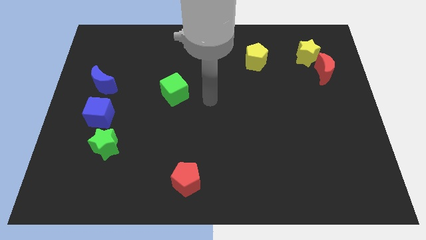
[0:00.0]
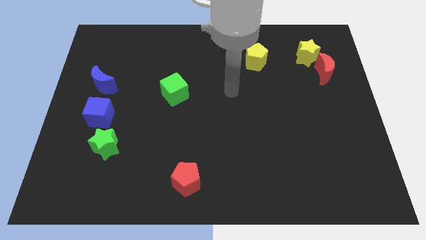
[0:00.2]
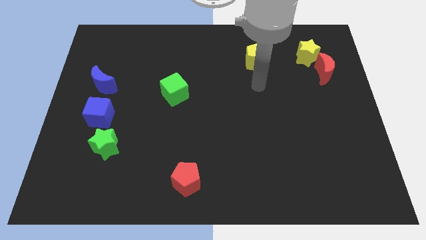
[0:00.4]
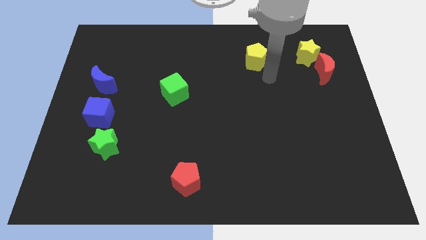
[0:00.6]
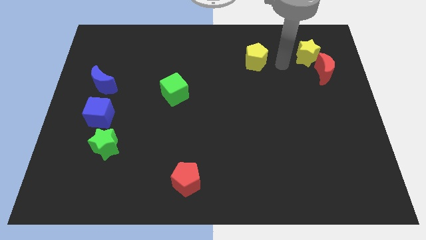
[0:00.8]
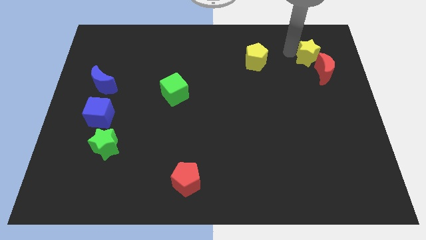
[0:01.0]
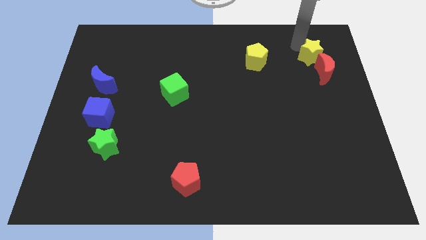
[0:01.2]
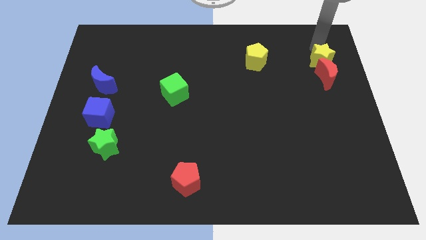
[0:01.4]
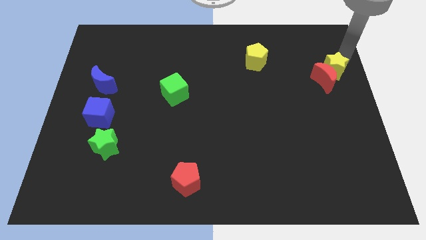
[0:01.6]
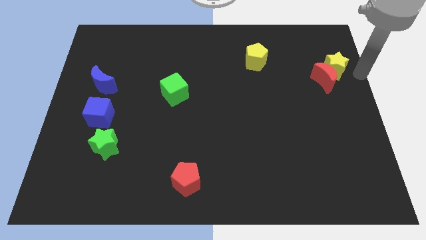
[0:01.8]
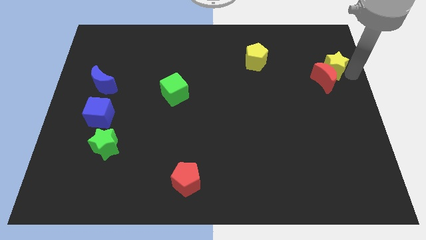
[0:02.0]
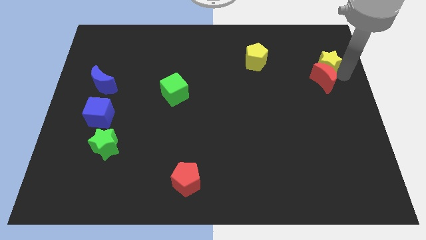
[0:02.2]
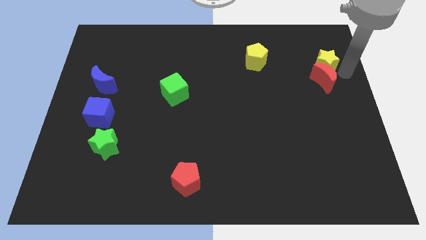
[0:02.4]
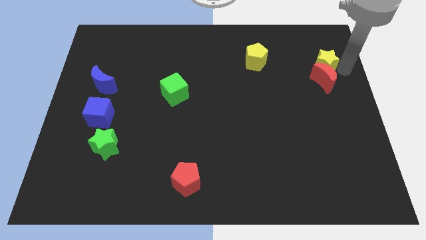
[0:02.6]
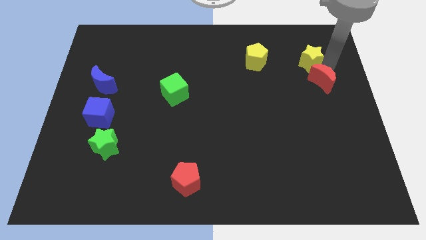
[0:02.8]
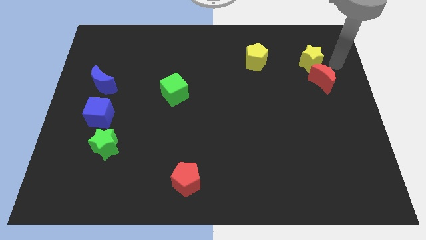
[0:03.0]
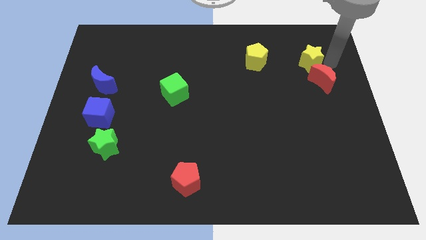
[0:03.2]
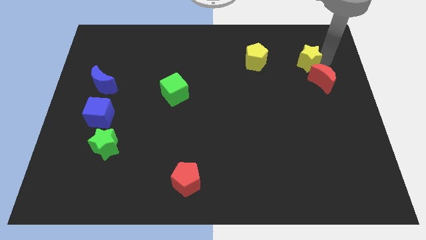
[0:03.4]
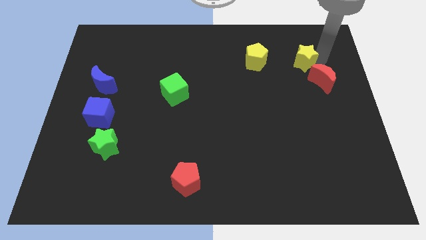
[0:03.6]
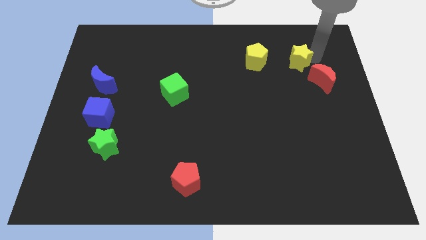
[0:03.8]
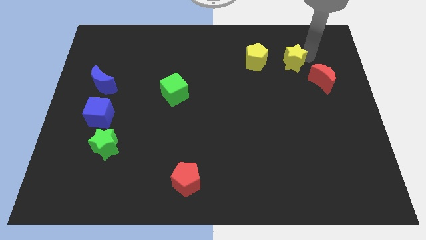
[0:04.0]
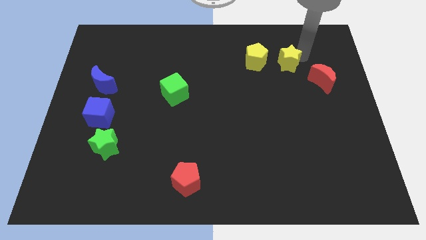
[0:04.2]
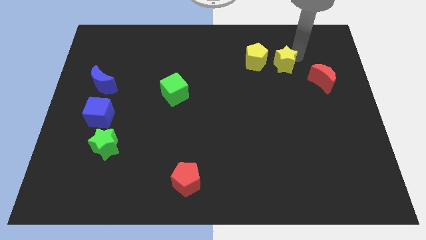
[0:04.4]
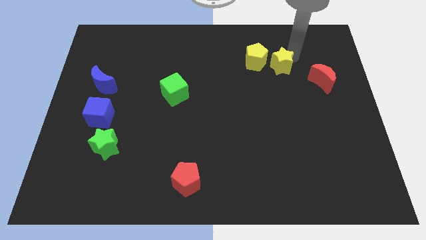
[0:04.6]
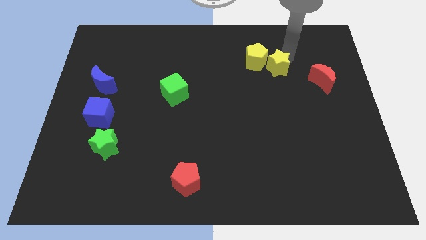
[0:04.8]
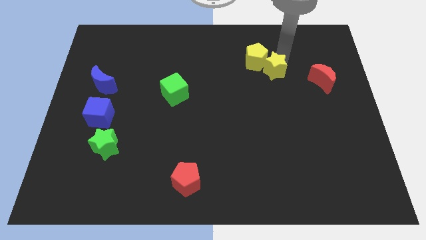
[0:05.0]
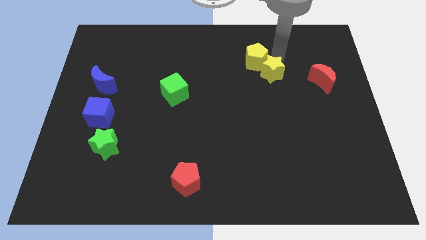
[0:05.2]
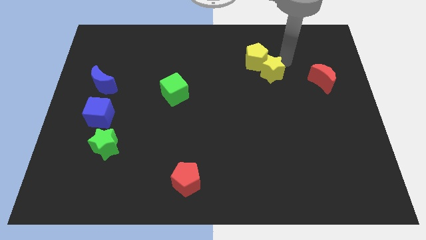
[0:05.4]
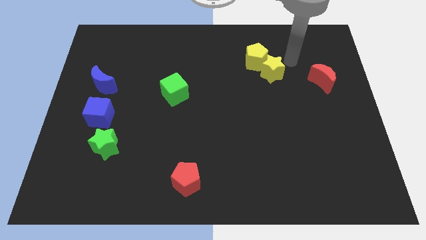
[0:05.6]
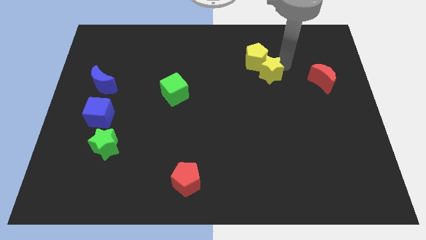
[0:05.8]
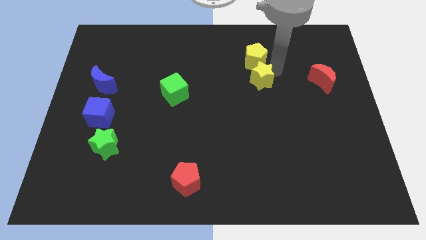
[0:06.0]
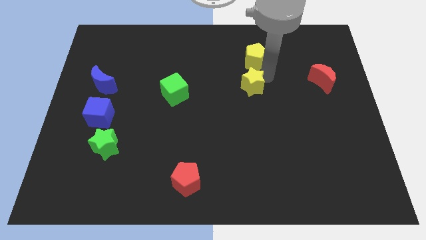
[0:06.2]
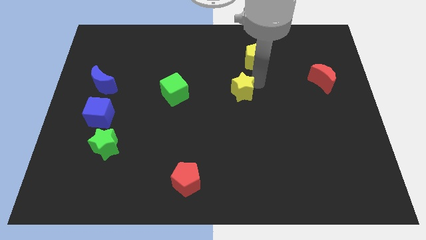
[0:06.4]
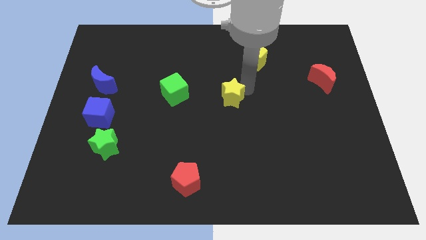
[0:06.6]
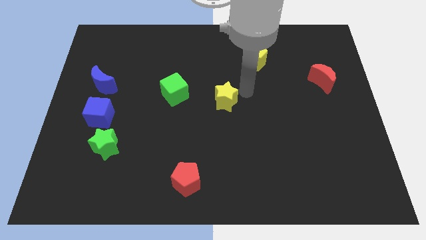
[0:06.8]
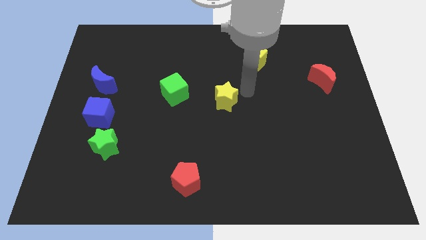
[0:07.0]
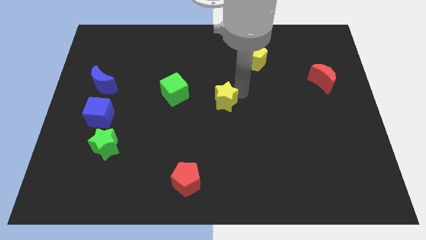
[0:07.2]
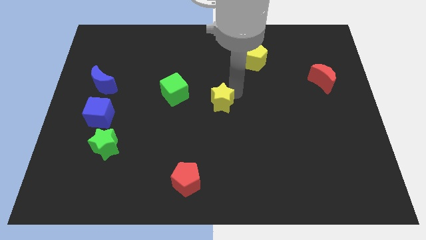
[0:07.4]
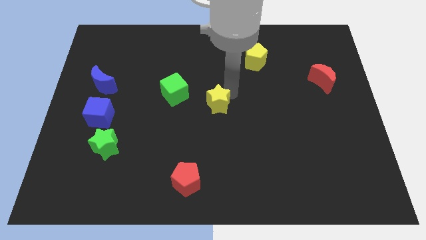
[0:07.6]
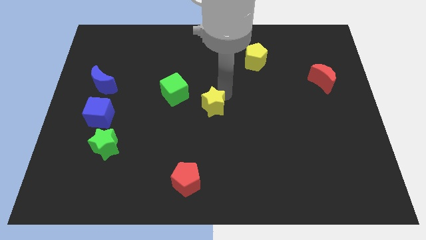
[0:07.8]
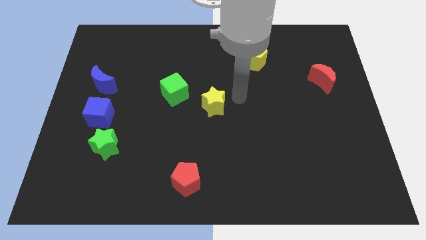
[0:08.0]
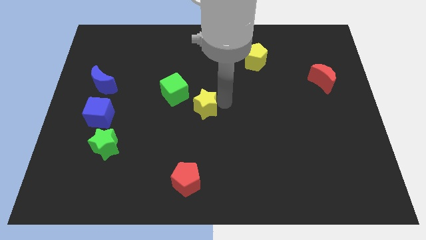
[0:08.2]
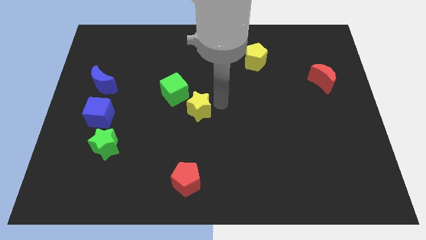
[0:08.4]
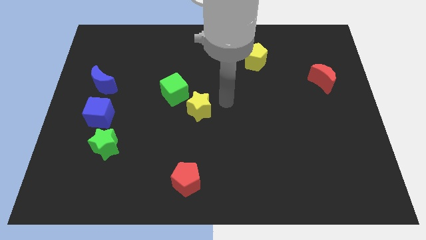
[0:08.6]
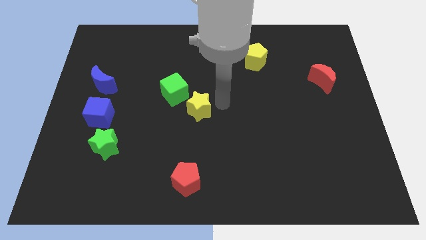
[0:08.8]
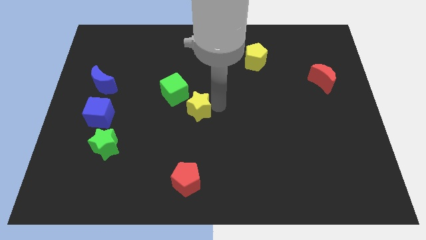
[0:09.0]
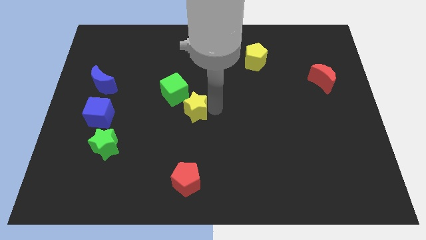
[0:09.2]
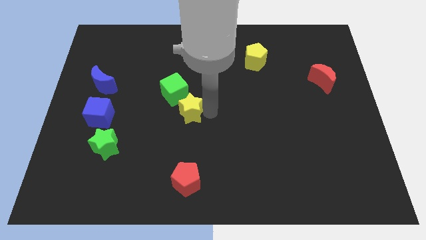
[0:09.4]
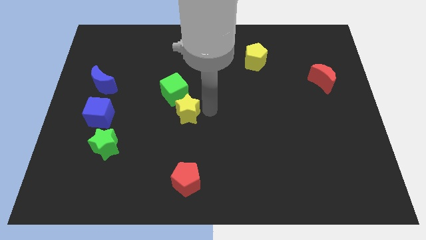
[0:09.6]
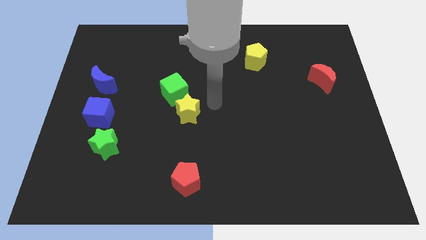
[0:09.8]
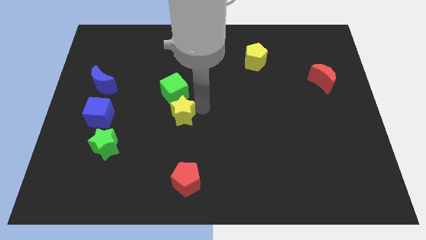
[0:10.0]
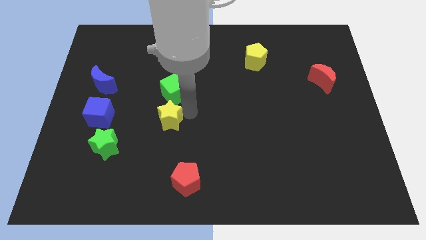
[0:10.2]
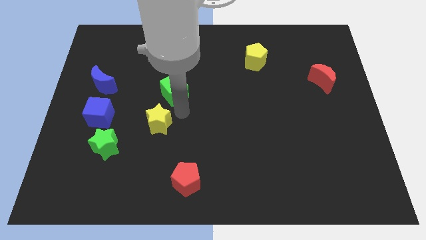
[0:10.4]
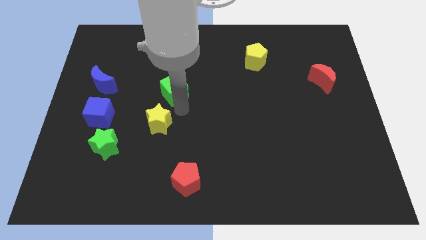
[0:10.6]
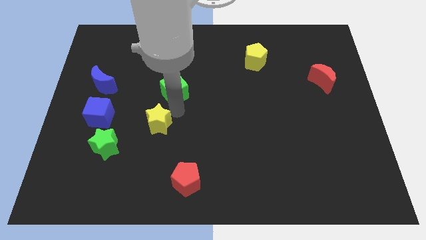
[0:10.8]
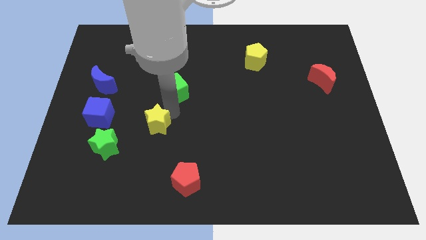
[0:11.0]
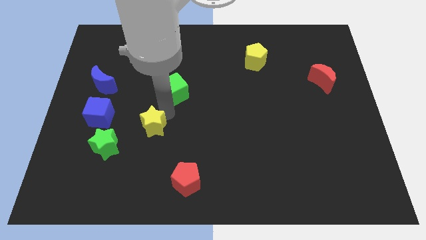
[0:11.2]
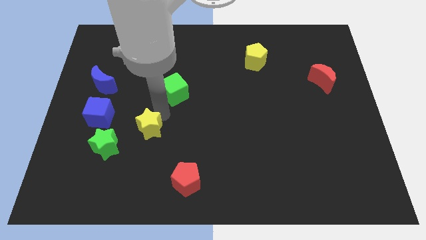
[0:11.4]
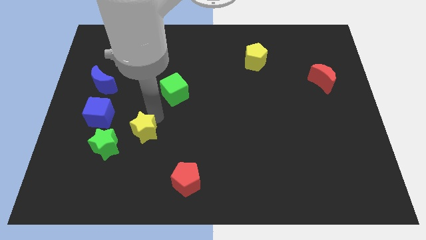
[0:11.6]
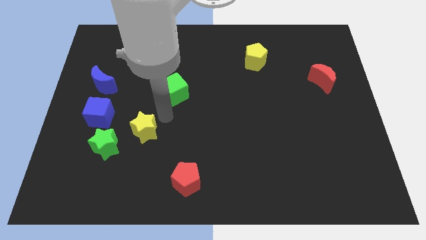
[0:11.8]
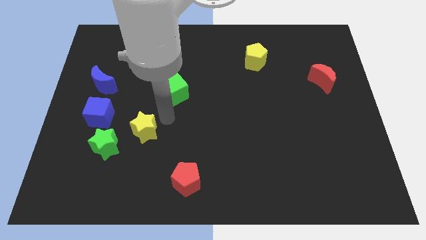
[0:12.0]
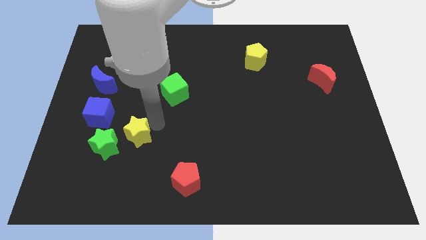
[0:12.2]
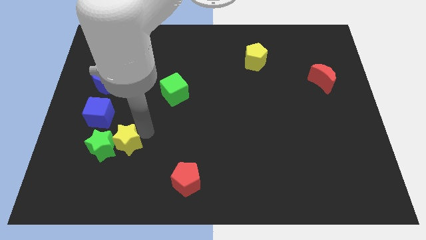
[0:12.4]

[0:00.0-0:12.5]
slide the yellow star towards the green star

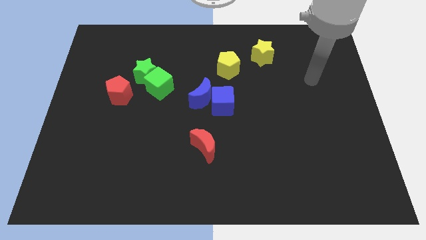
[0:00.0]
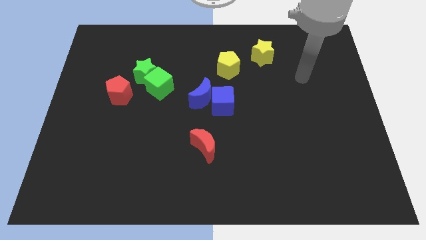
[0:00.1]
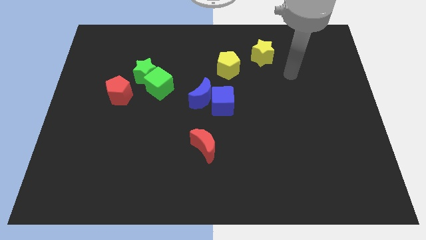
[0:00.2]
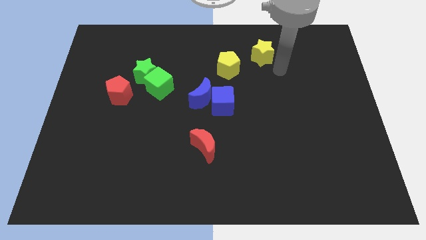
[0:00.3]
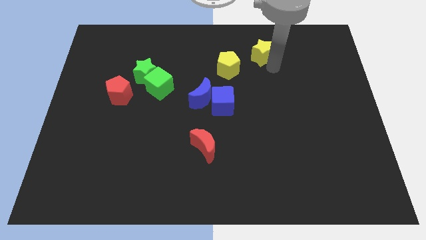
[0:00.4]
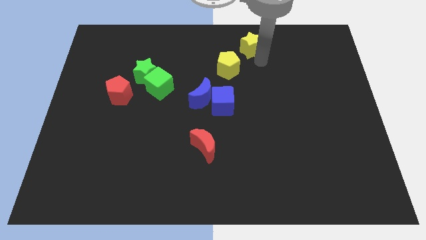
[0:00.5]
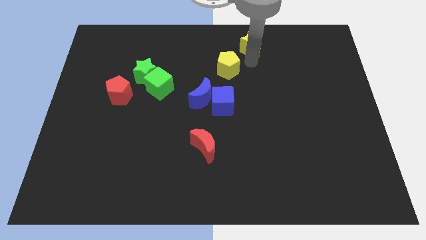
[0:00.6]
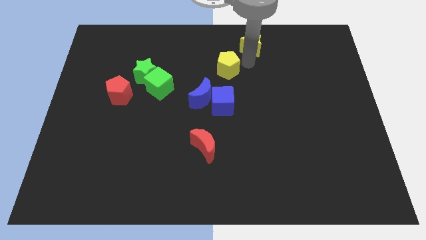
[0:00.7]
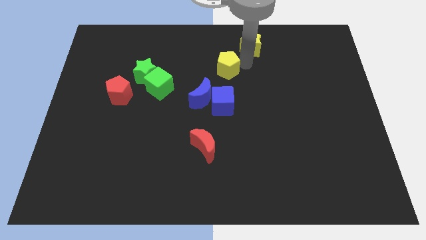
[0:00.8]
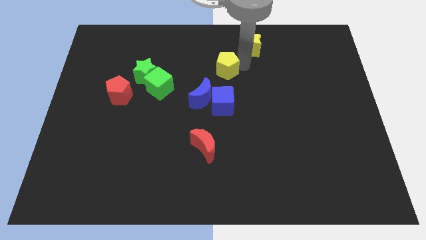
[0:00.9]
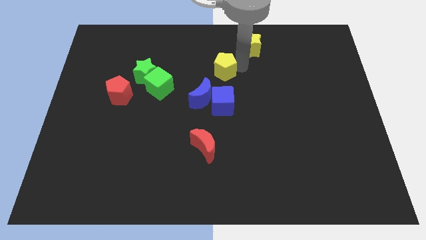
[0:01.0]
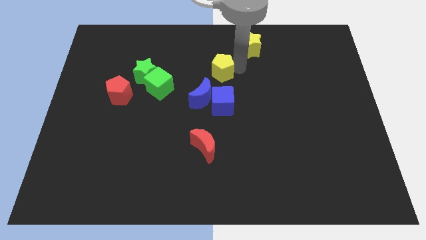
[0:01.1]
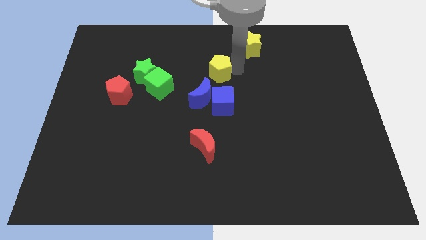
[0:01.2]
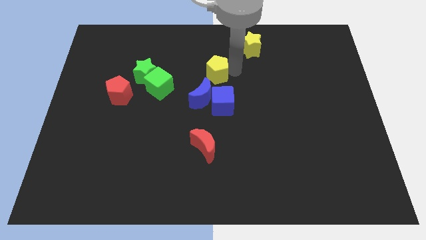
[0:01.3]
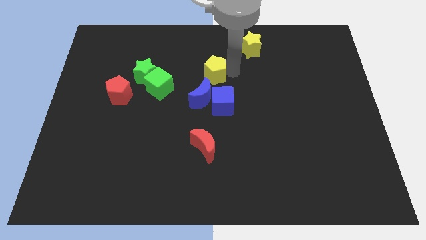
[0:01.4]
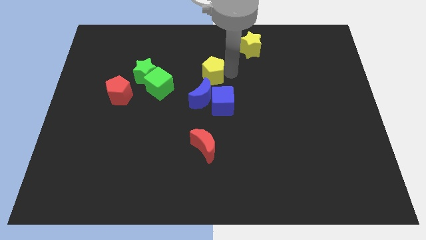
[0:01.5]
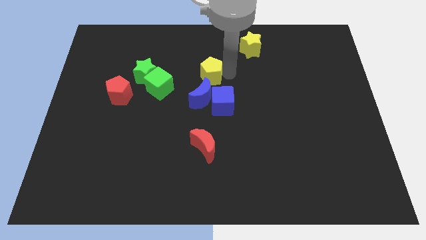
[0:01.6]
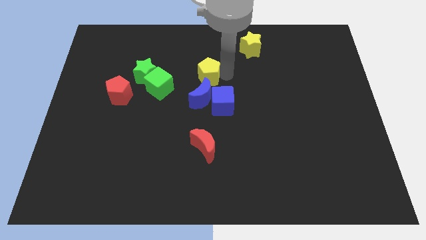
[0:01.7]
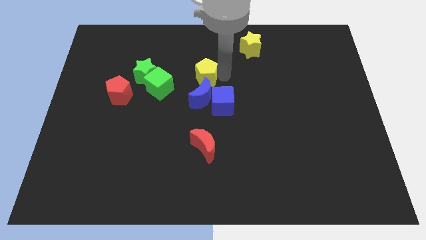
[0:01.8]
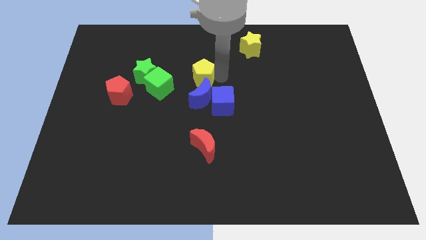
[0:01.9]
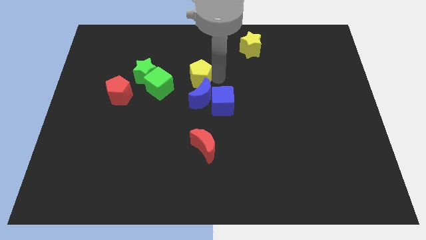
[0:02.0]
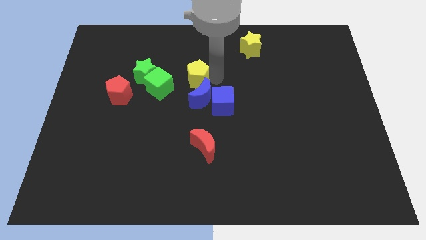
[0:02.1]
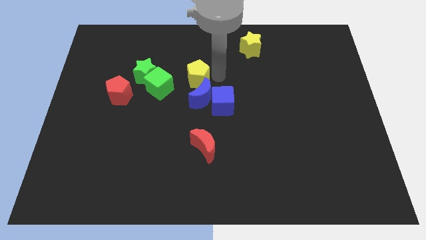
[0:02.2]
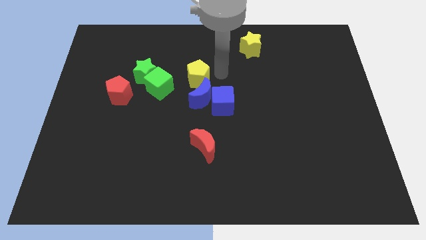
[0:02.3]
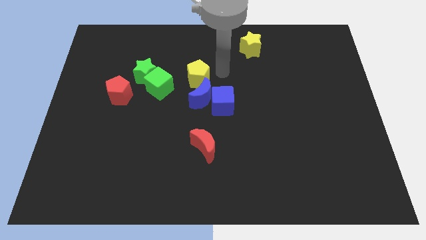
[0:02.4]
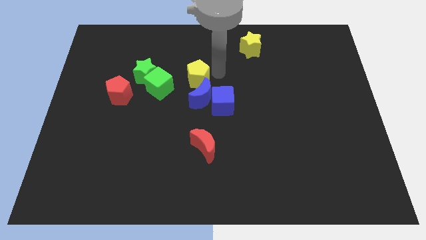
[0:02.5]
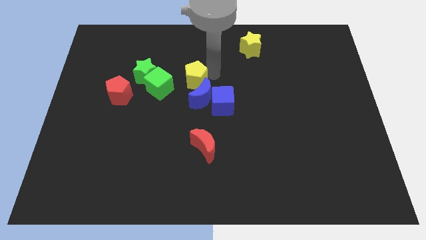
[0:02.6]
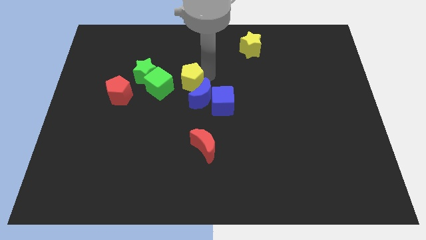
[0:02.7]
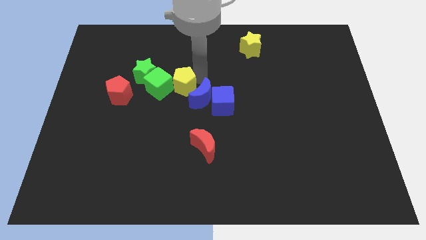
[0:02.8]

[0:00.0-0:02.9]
push the yellow pentagon next to the green cube
